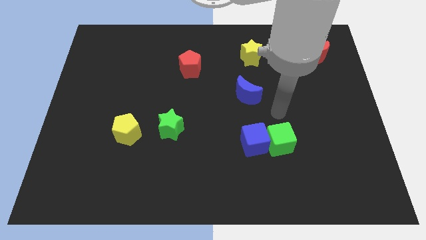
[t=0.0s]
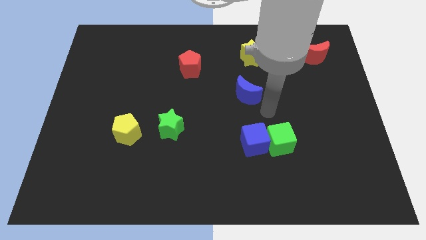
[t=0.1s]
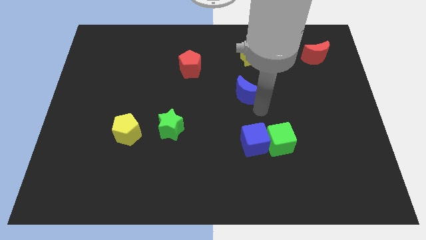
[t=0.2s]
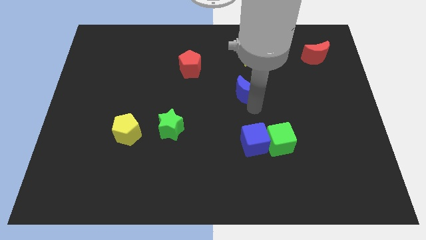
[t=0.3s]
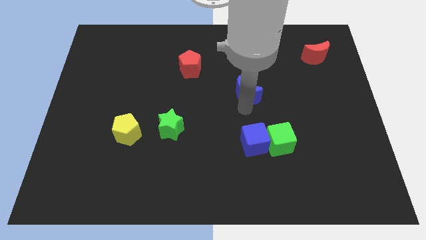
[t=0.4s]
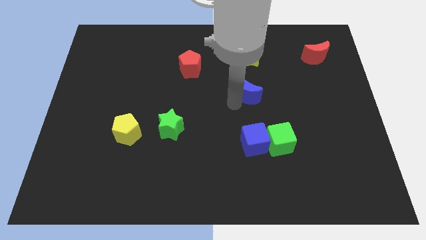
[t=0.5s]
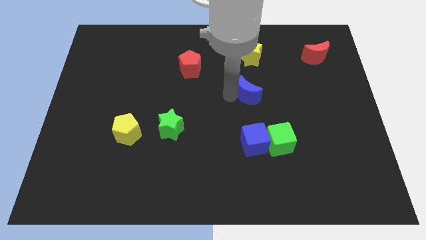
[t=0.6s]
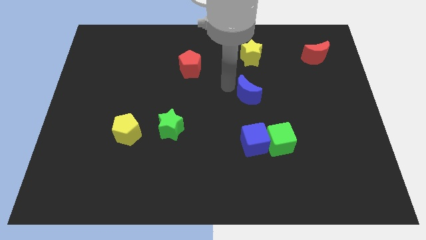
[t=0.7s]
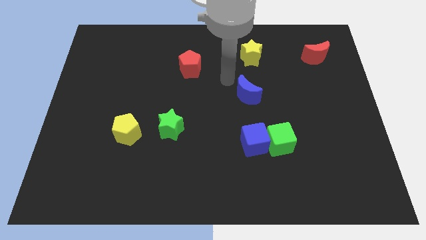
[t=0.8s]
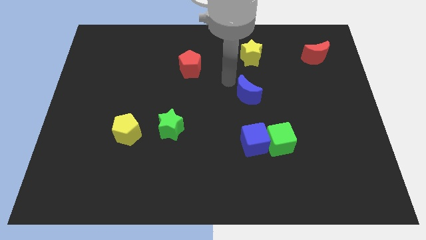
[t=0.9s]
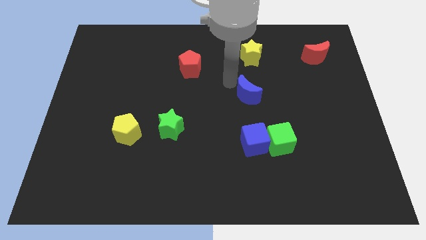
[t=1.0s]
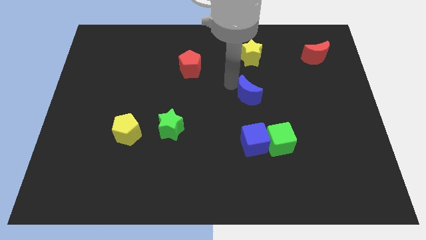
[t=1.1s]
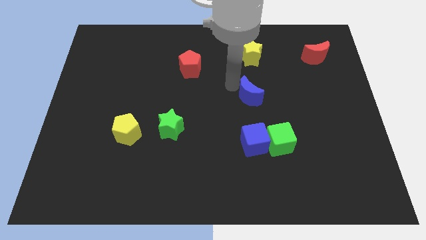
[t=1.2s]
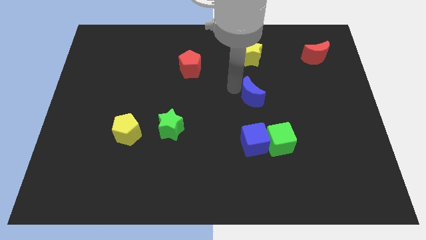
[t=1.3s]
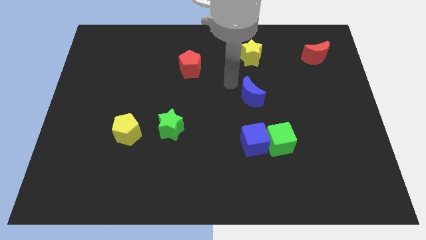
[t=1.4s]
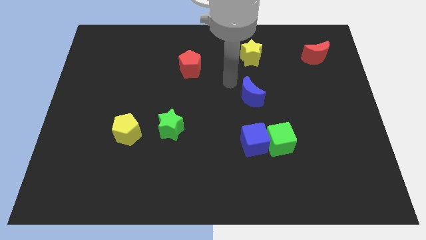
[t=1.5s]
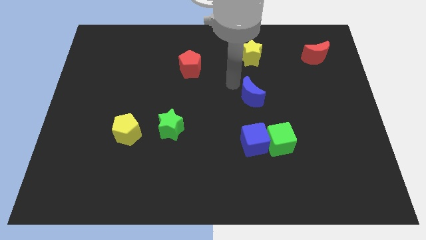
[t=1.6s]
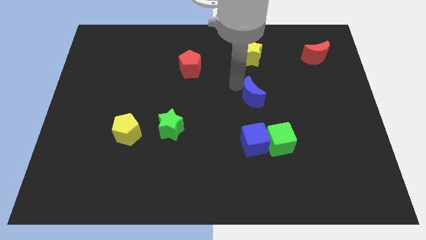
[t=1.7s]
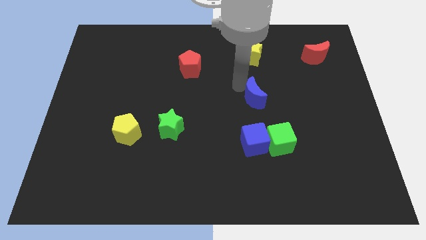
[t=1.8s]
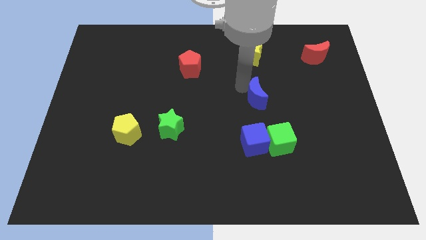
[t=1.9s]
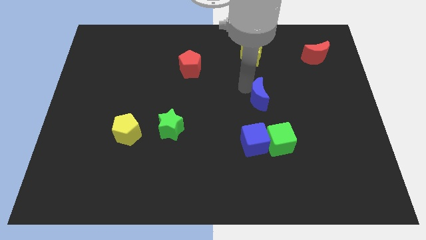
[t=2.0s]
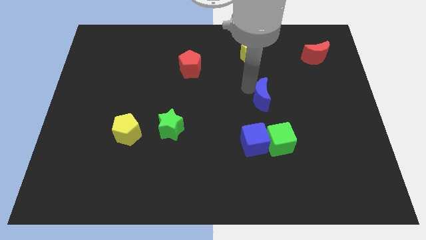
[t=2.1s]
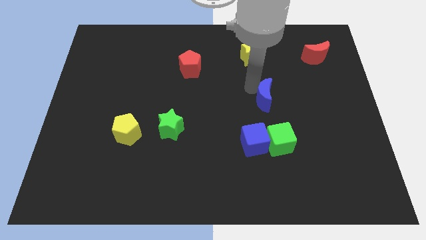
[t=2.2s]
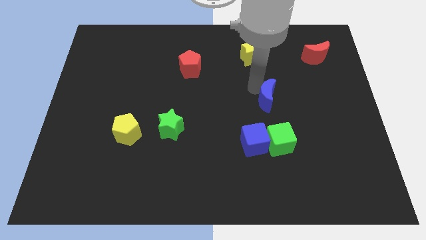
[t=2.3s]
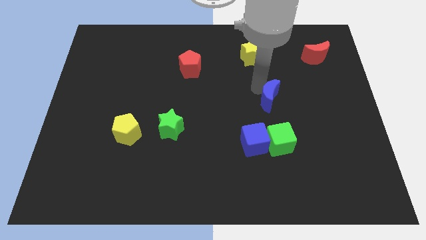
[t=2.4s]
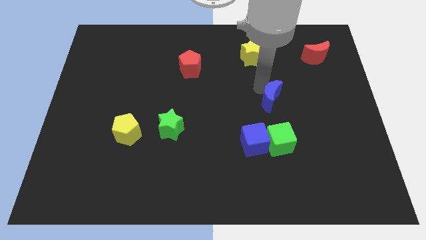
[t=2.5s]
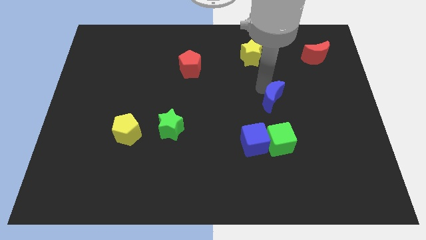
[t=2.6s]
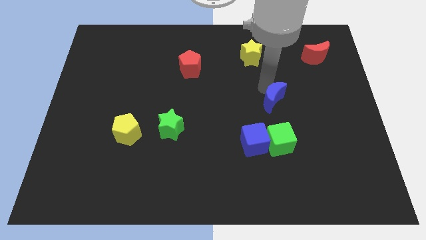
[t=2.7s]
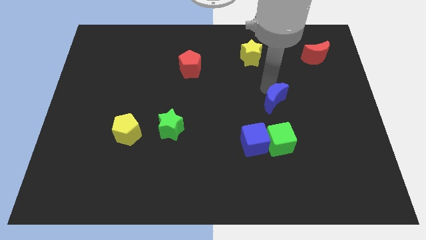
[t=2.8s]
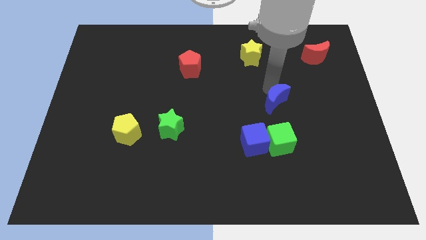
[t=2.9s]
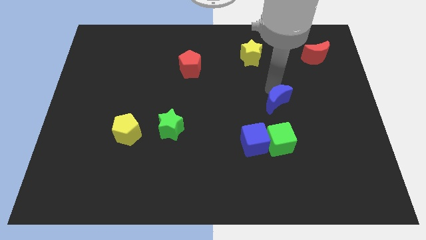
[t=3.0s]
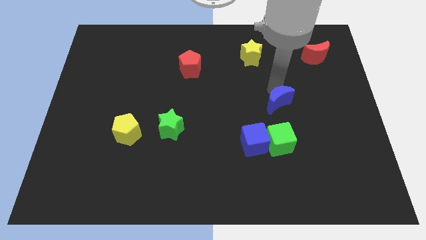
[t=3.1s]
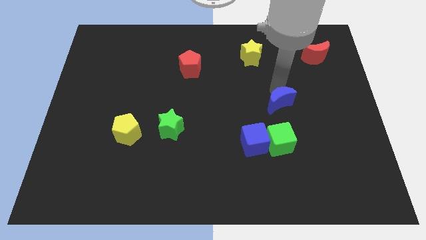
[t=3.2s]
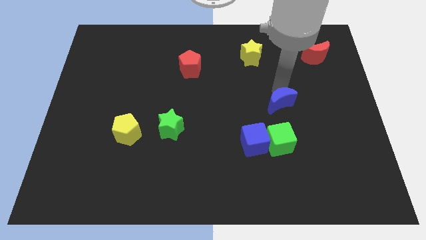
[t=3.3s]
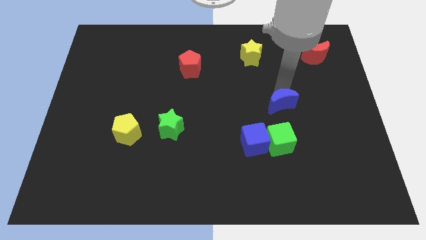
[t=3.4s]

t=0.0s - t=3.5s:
slide the blue moon somewhat down and right

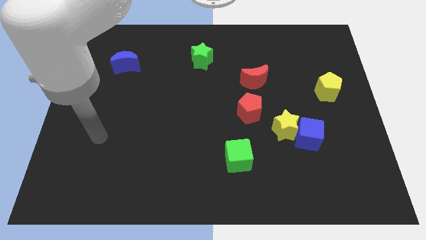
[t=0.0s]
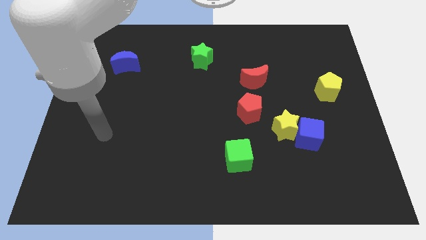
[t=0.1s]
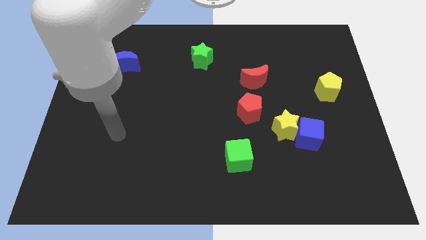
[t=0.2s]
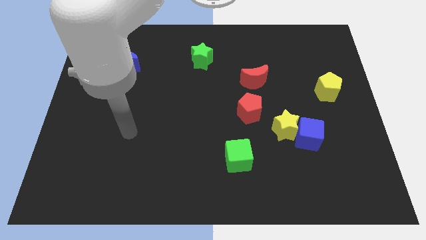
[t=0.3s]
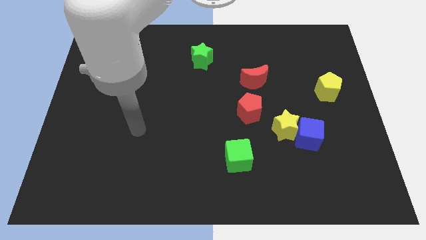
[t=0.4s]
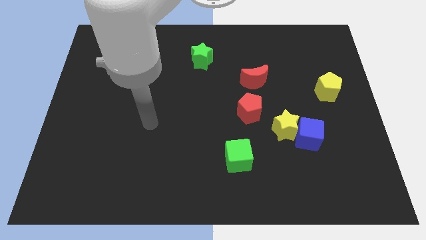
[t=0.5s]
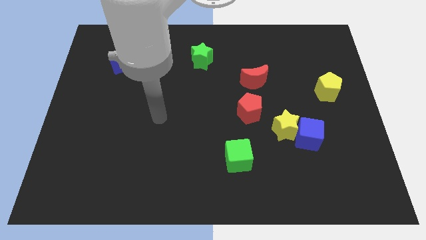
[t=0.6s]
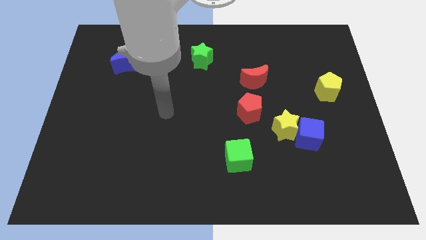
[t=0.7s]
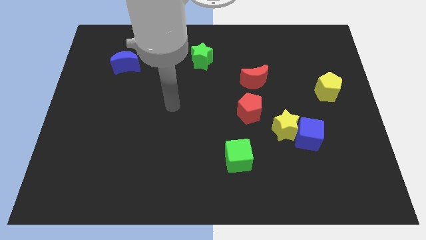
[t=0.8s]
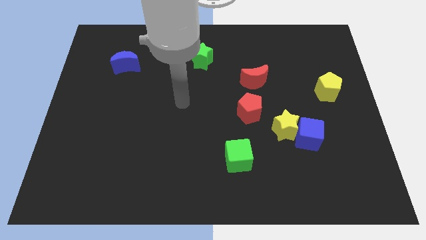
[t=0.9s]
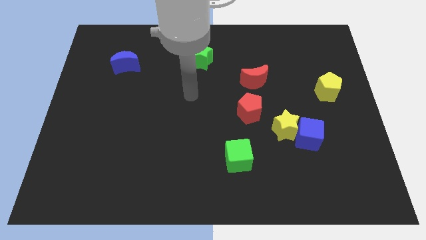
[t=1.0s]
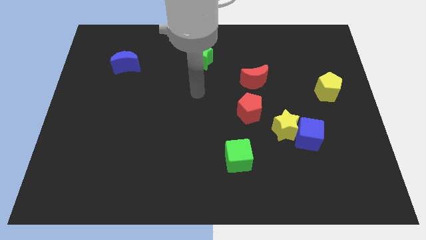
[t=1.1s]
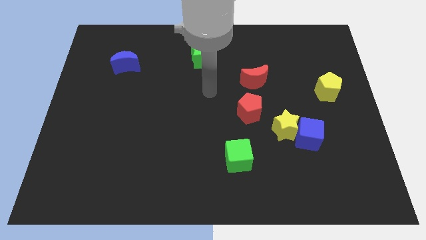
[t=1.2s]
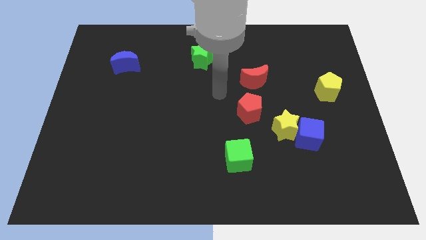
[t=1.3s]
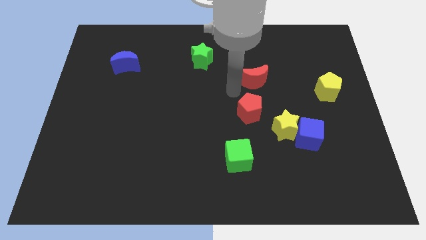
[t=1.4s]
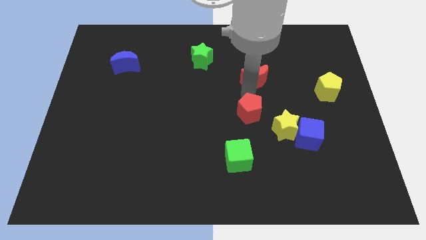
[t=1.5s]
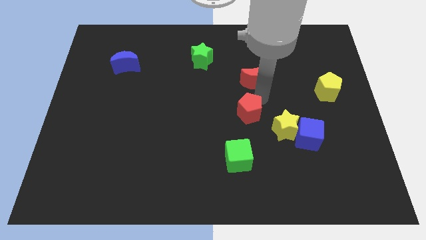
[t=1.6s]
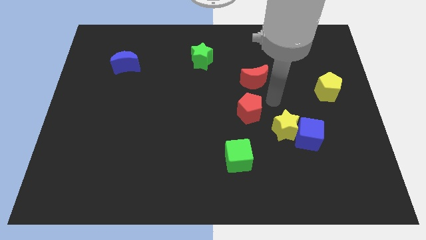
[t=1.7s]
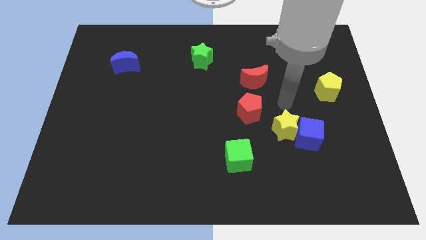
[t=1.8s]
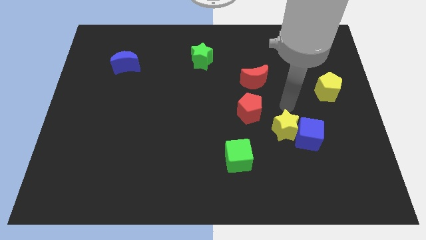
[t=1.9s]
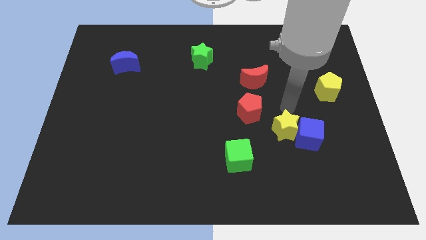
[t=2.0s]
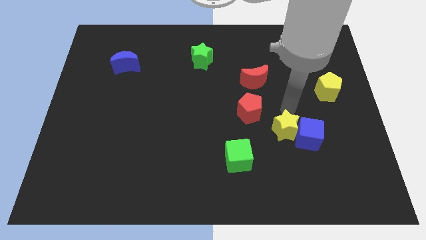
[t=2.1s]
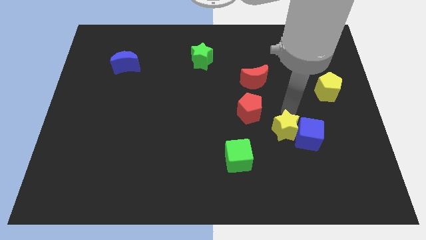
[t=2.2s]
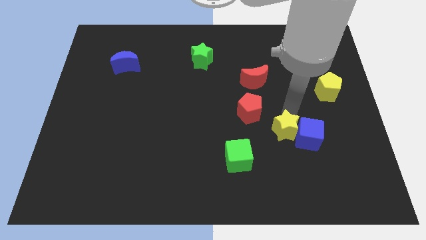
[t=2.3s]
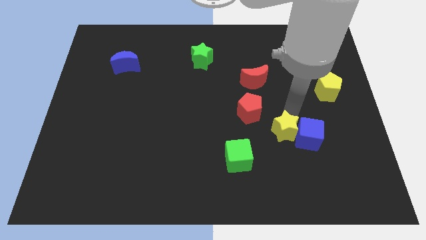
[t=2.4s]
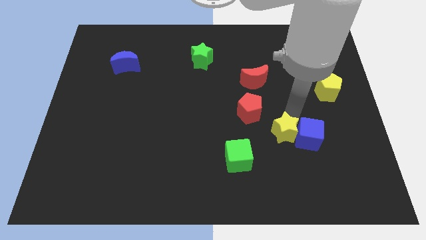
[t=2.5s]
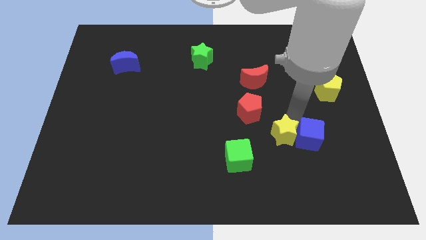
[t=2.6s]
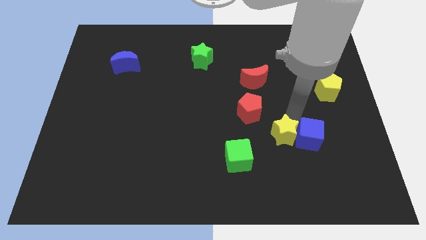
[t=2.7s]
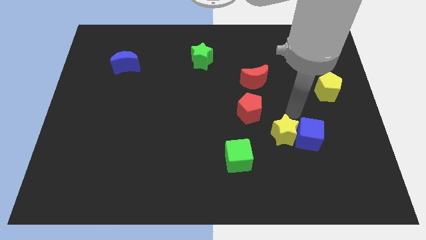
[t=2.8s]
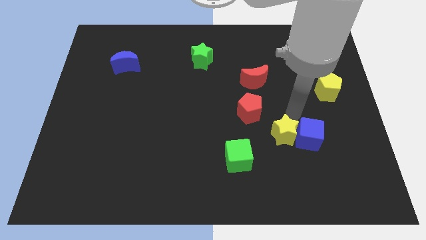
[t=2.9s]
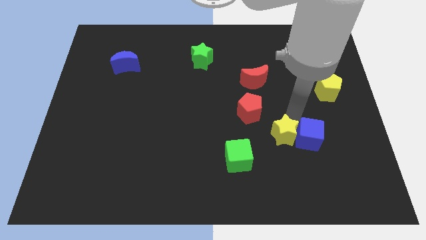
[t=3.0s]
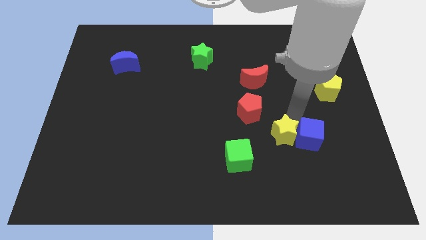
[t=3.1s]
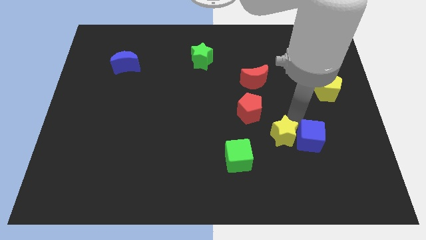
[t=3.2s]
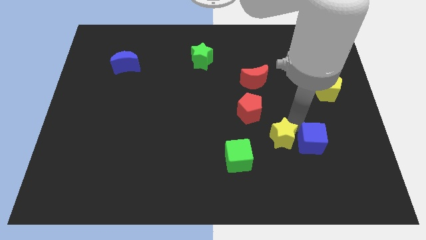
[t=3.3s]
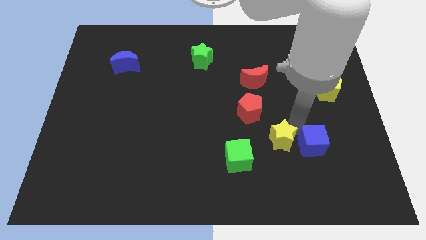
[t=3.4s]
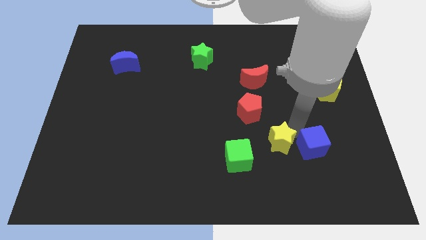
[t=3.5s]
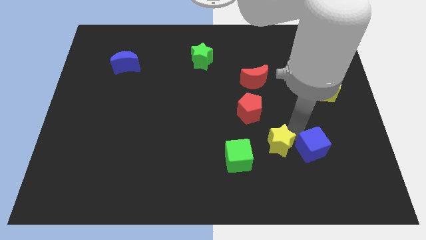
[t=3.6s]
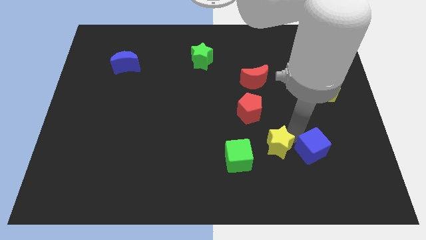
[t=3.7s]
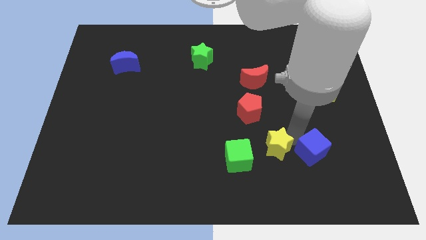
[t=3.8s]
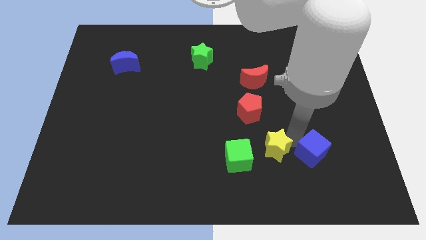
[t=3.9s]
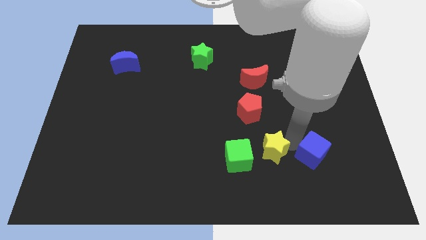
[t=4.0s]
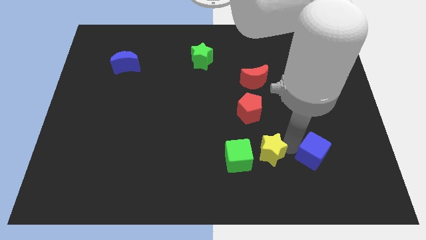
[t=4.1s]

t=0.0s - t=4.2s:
slightly move the yellow star downwards and left diagonally

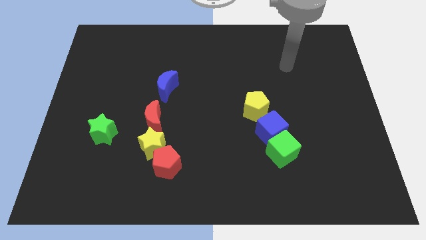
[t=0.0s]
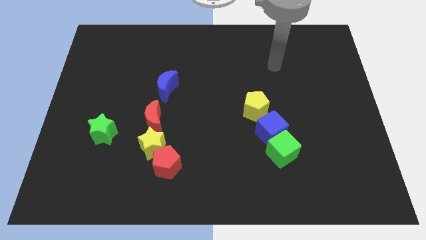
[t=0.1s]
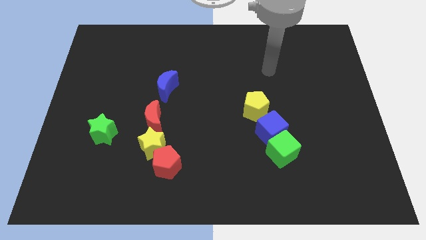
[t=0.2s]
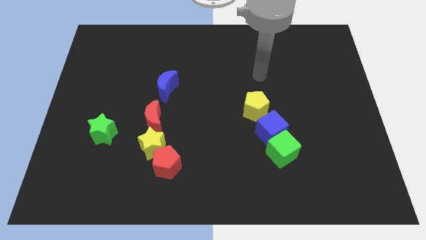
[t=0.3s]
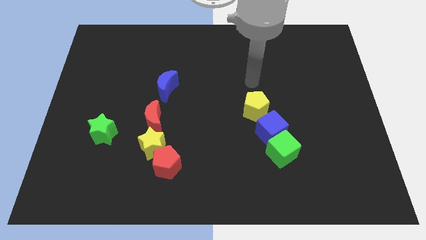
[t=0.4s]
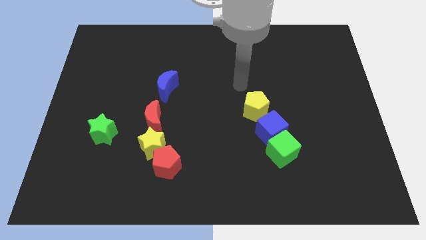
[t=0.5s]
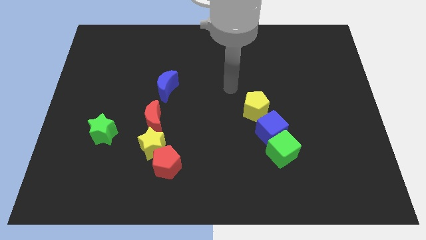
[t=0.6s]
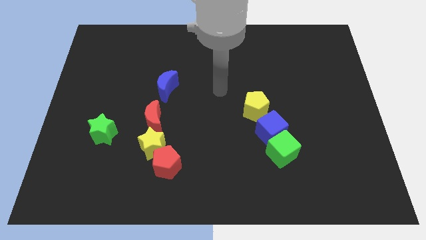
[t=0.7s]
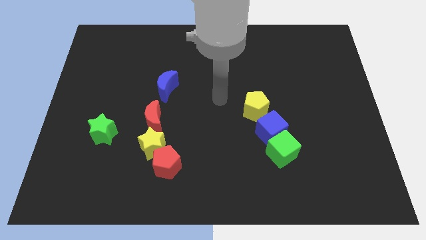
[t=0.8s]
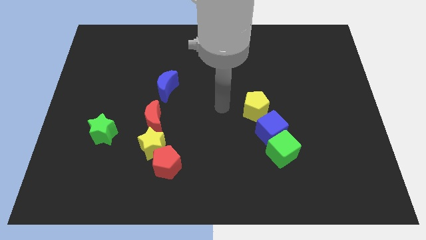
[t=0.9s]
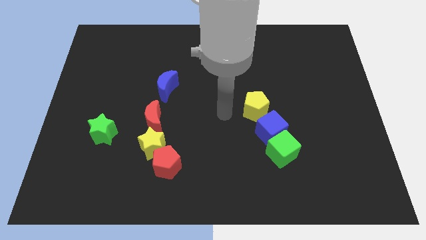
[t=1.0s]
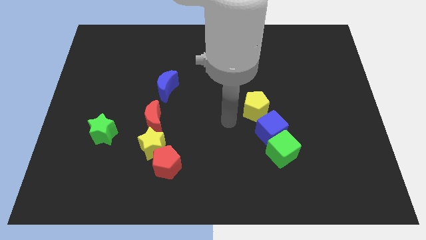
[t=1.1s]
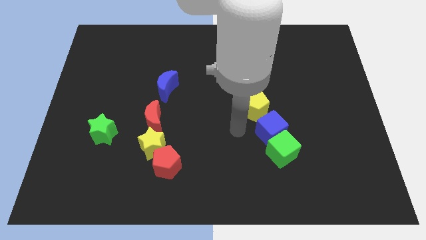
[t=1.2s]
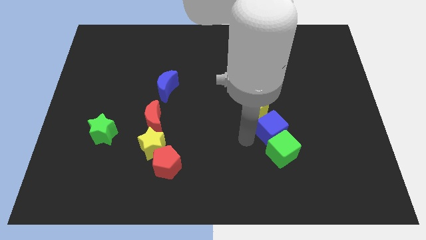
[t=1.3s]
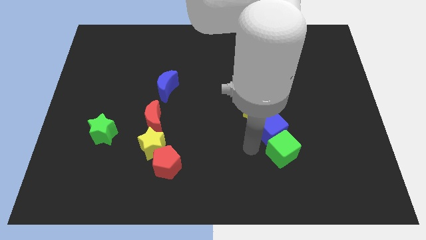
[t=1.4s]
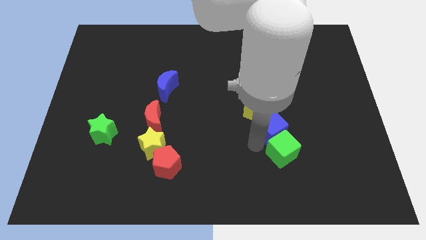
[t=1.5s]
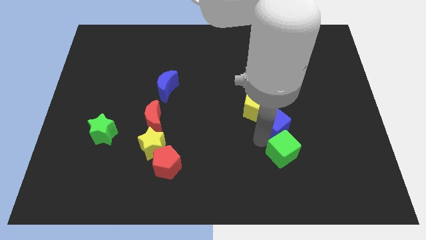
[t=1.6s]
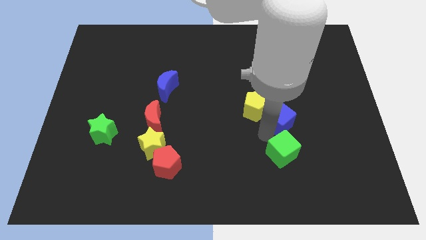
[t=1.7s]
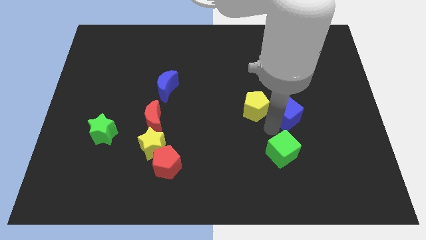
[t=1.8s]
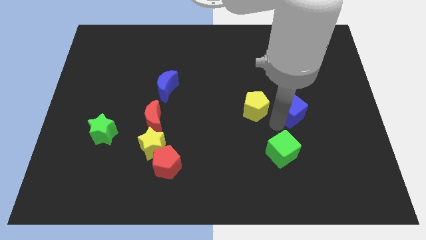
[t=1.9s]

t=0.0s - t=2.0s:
slide the blue cube diagonally upwards and to the right a little
